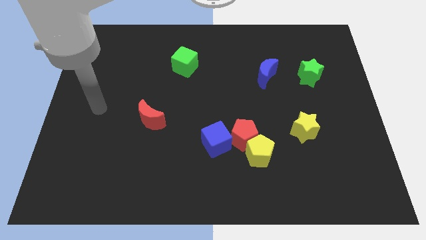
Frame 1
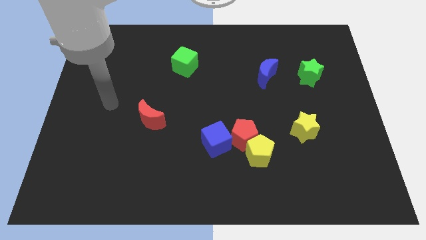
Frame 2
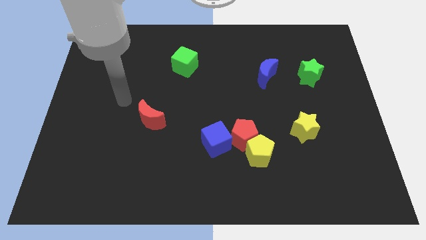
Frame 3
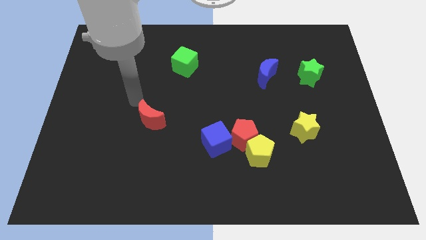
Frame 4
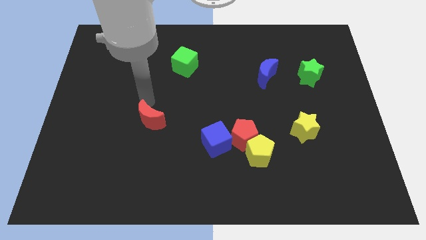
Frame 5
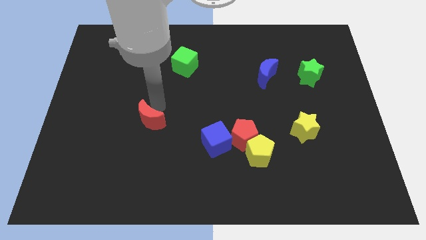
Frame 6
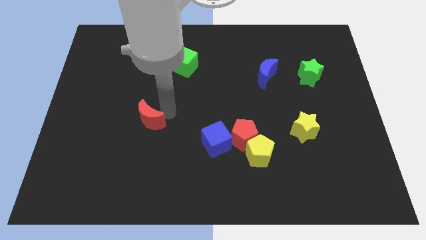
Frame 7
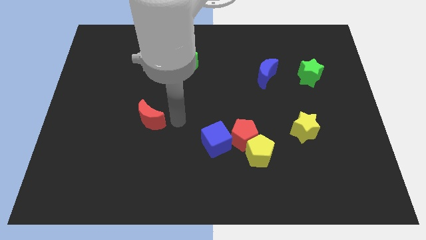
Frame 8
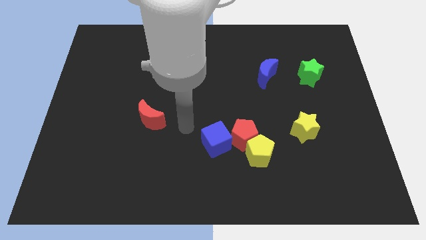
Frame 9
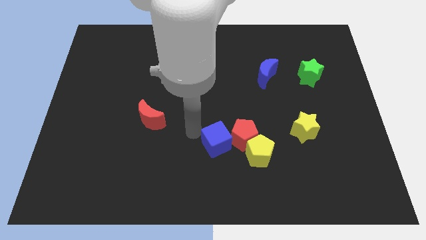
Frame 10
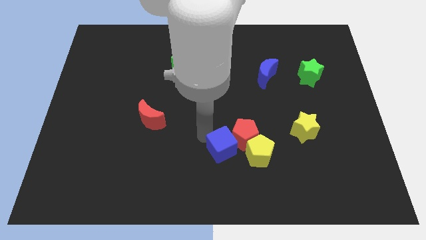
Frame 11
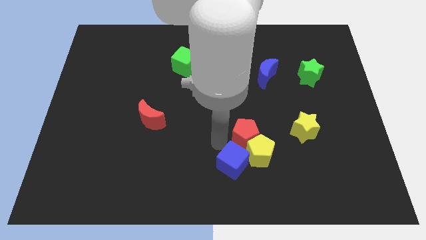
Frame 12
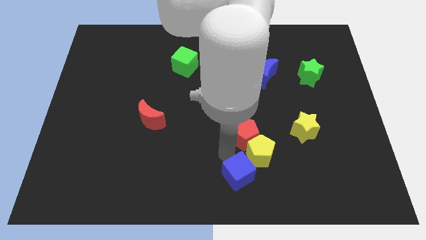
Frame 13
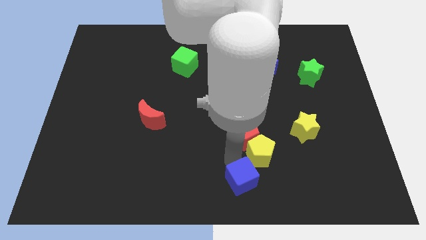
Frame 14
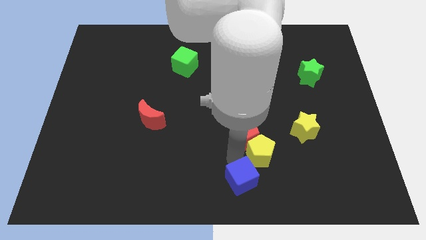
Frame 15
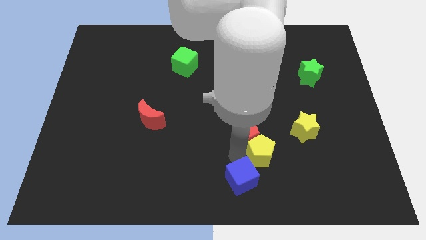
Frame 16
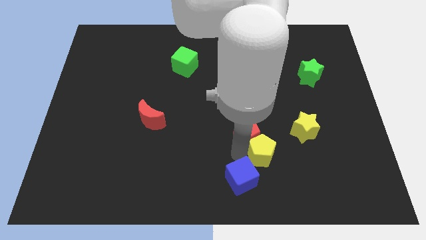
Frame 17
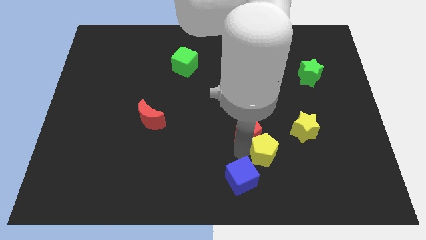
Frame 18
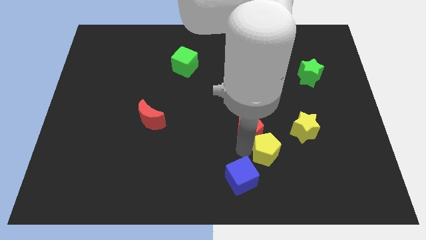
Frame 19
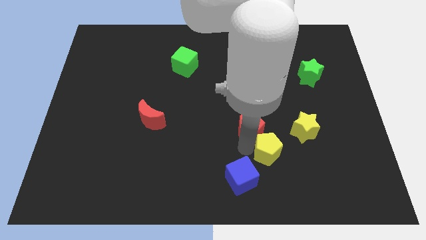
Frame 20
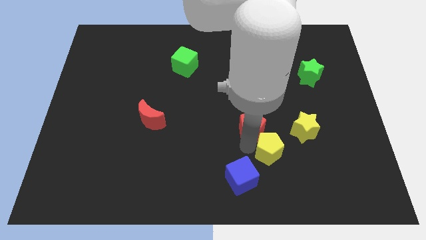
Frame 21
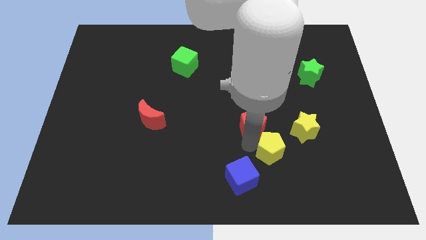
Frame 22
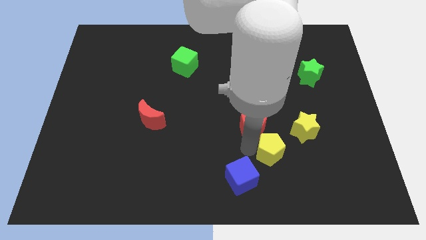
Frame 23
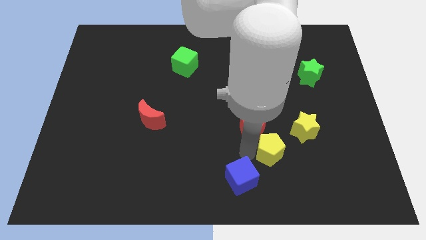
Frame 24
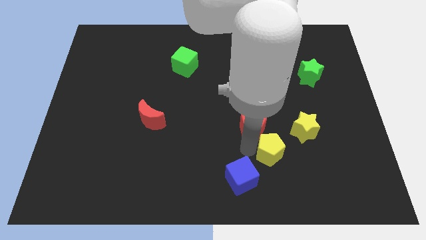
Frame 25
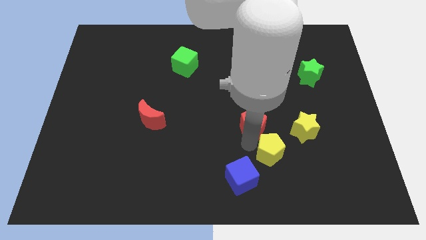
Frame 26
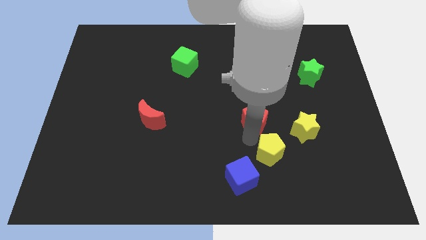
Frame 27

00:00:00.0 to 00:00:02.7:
pull the red pentagon apart from the yellow pentagon and blue cube

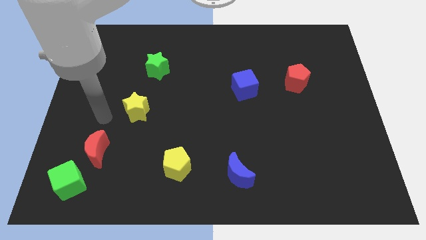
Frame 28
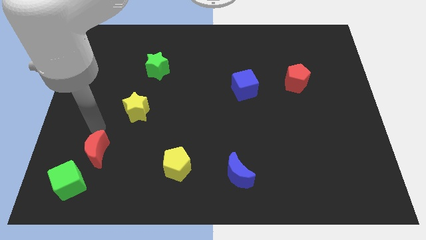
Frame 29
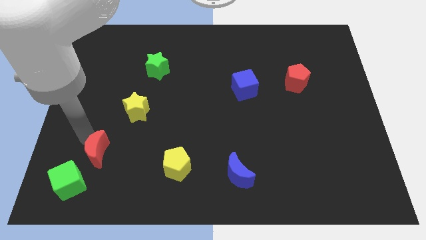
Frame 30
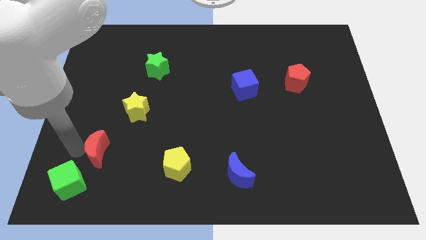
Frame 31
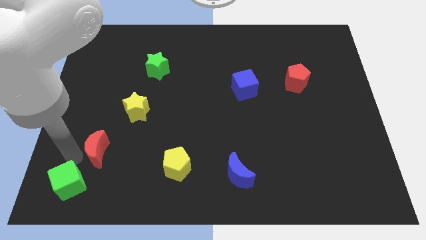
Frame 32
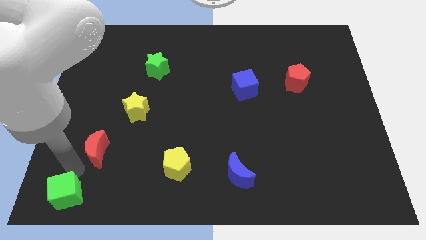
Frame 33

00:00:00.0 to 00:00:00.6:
pull the red moon apart from the green cube

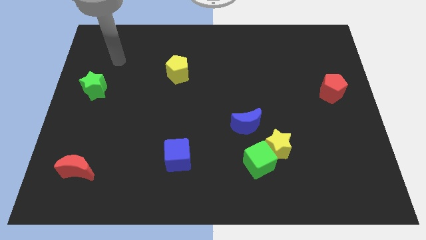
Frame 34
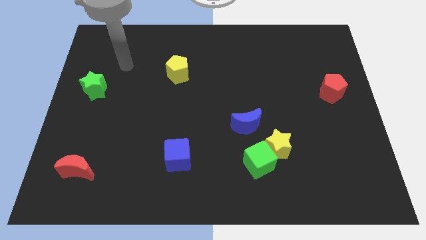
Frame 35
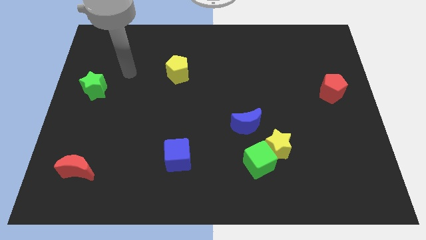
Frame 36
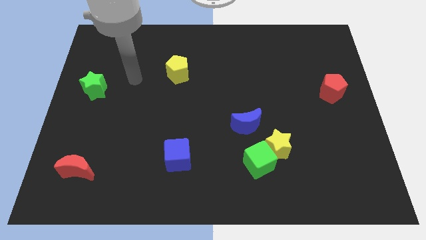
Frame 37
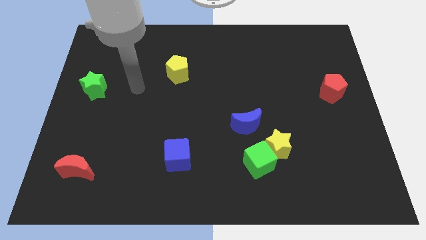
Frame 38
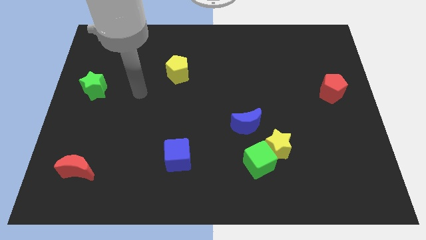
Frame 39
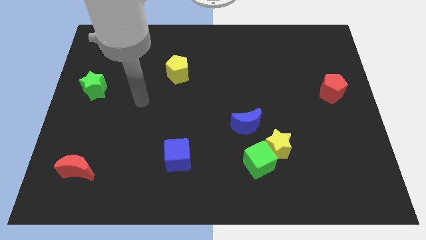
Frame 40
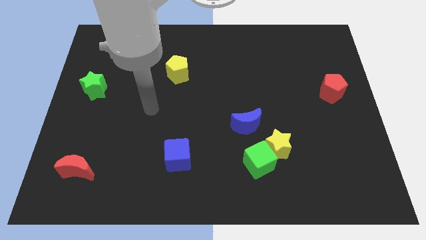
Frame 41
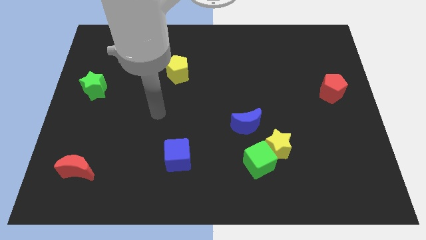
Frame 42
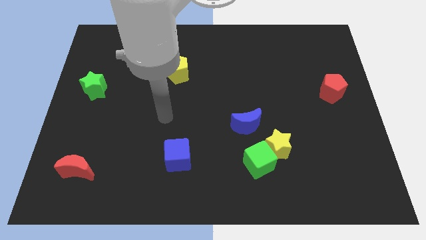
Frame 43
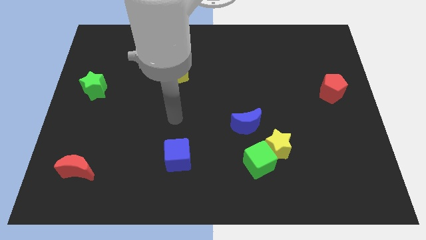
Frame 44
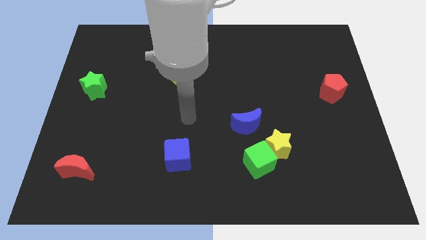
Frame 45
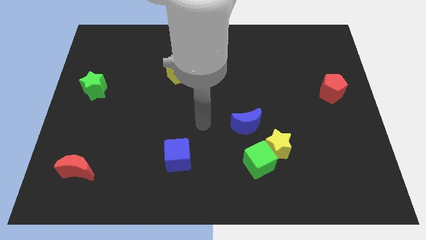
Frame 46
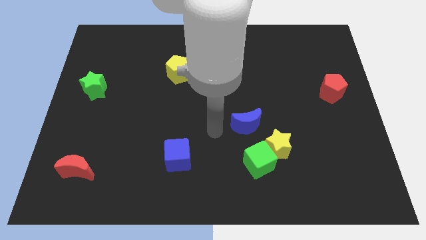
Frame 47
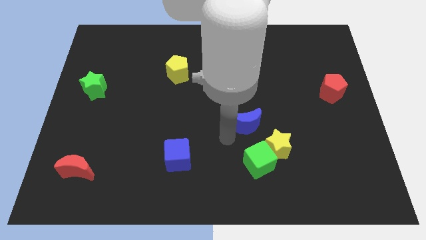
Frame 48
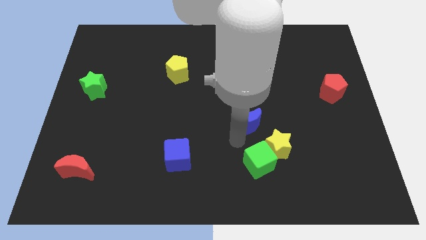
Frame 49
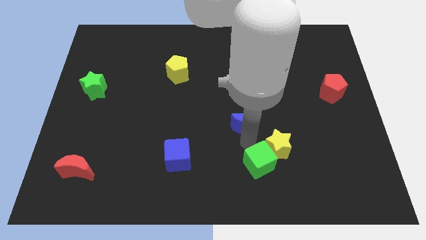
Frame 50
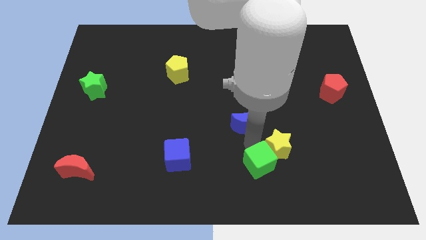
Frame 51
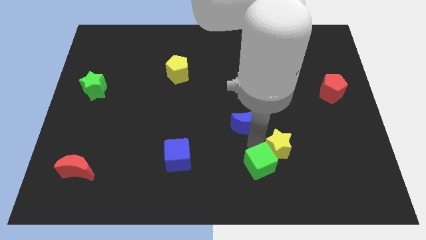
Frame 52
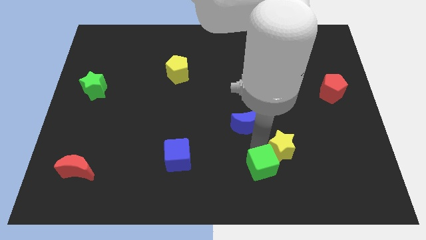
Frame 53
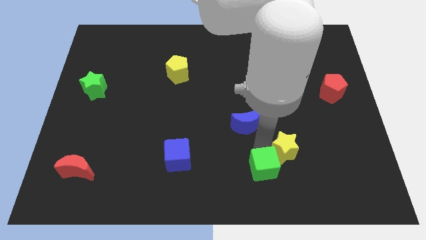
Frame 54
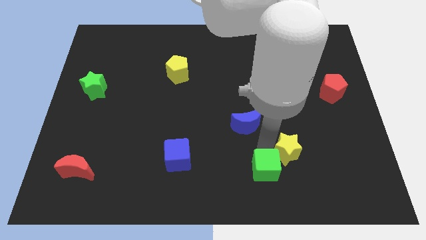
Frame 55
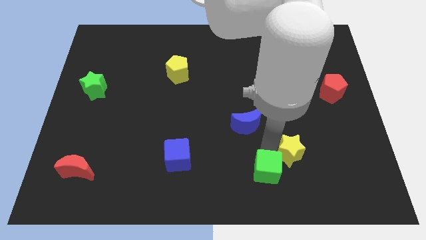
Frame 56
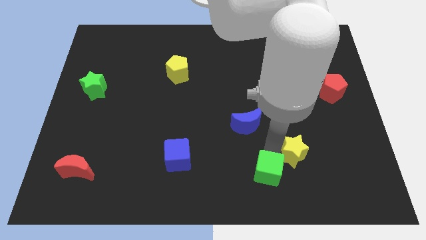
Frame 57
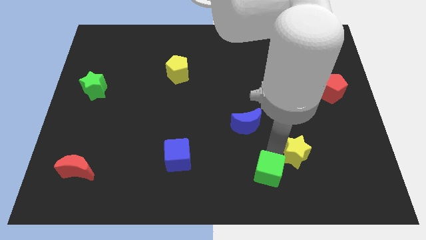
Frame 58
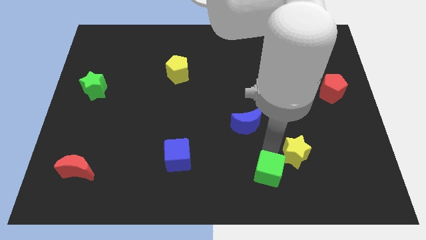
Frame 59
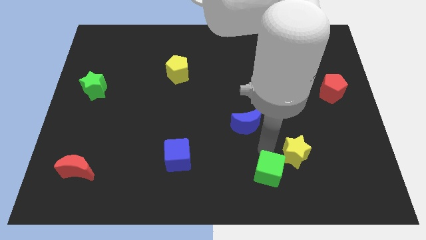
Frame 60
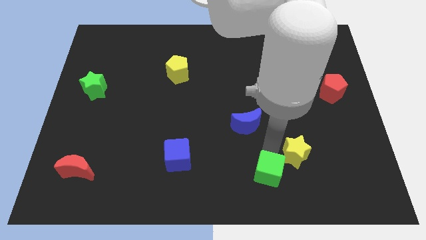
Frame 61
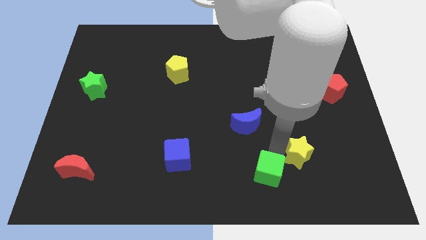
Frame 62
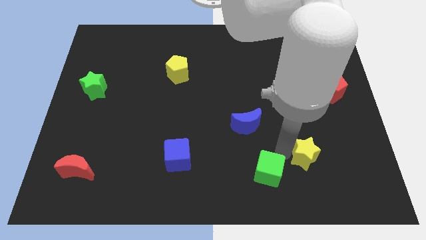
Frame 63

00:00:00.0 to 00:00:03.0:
separate the yellow star from the green cube and blue moon

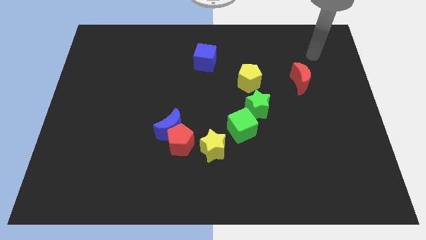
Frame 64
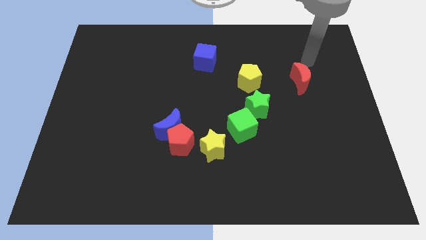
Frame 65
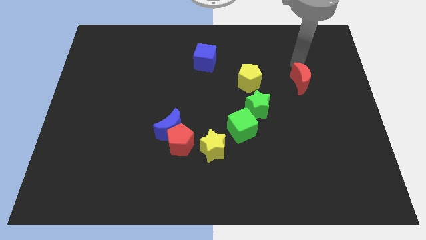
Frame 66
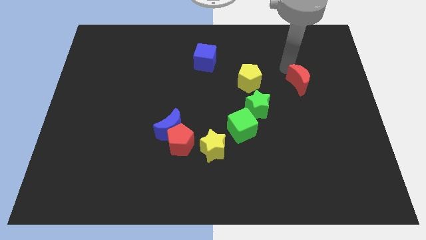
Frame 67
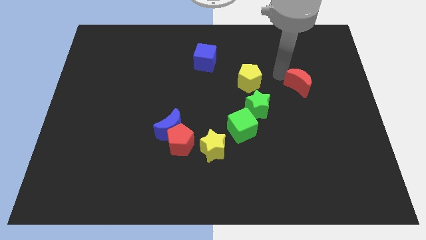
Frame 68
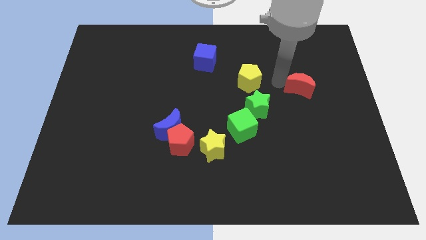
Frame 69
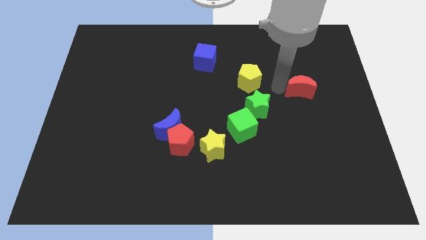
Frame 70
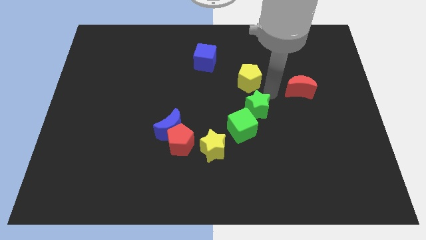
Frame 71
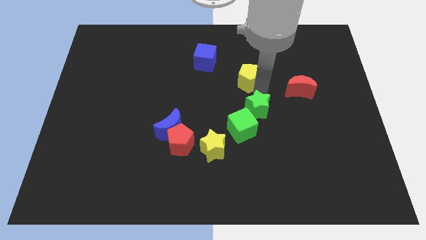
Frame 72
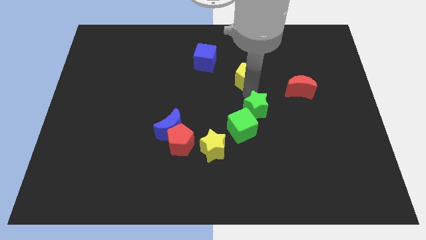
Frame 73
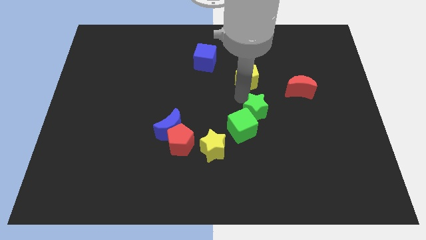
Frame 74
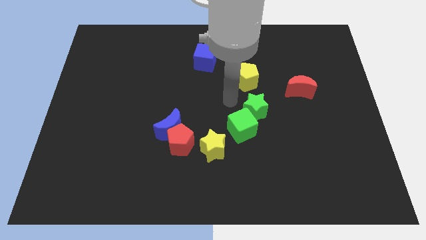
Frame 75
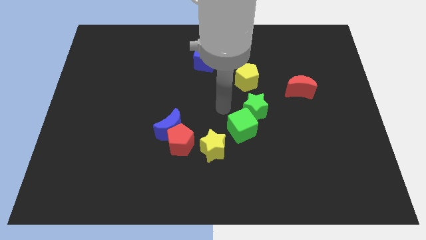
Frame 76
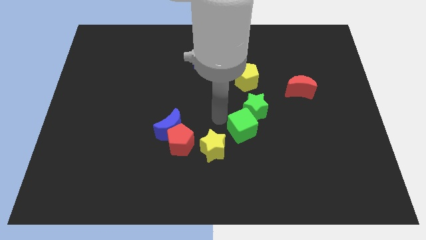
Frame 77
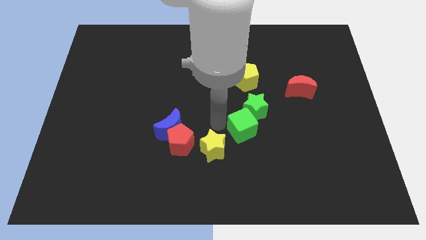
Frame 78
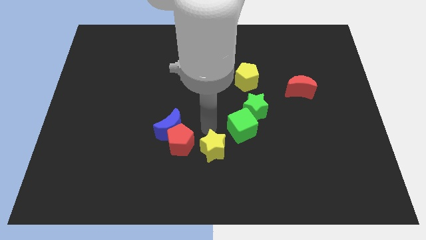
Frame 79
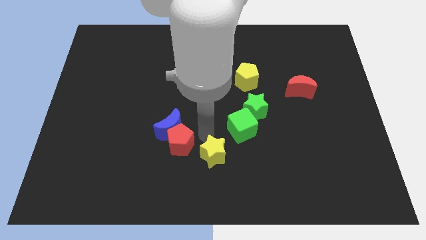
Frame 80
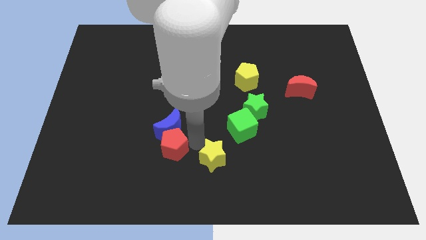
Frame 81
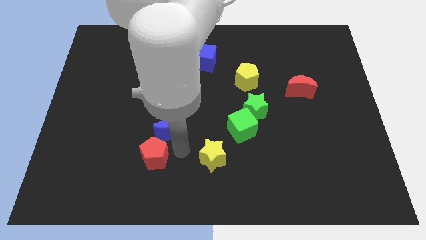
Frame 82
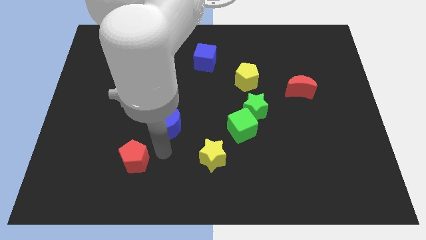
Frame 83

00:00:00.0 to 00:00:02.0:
move the blue moon away from the red pentagon

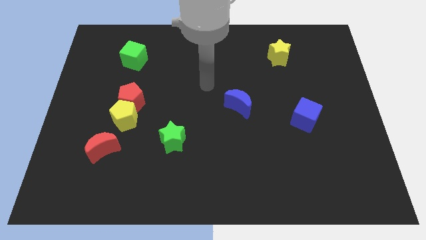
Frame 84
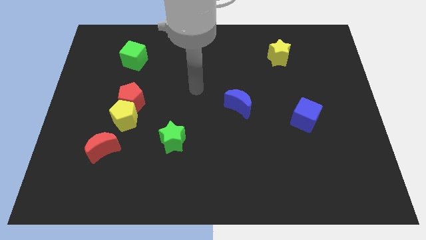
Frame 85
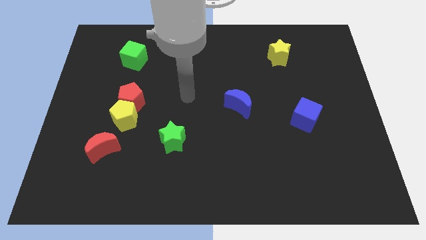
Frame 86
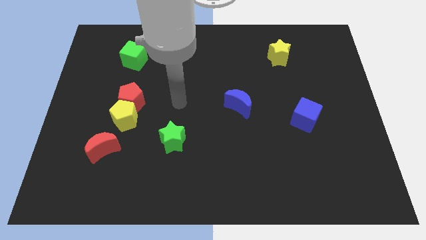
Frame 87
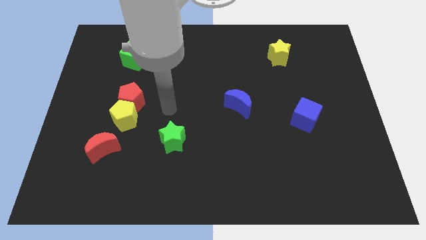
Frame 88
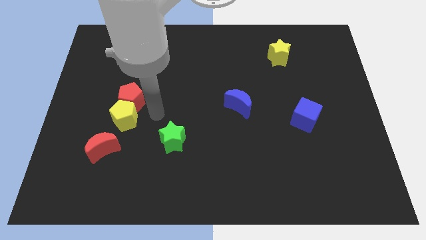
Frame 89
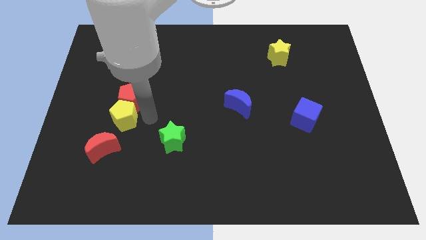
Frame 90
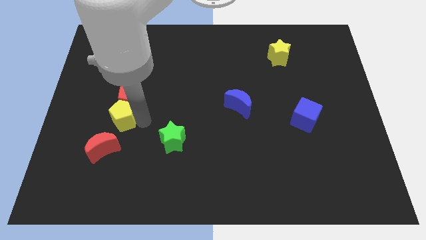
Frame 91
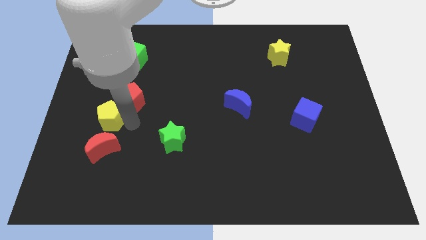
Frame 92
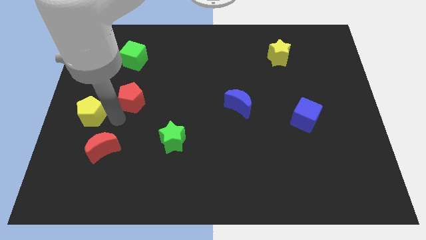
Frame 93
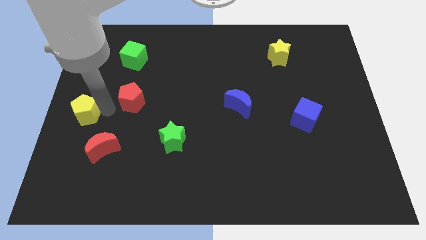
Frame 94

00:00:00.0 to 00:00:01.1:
separate the red pentagon from the yellow pentagon

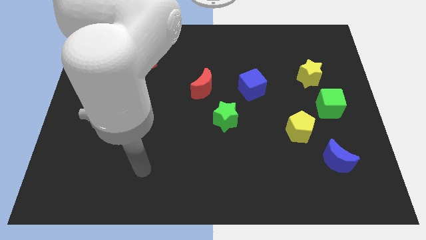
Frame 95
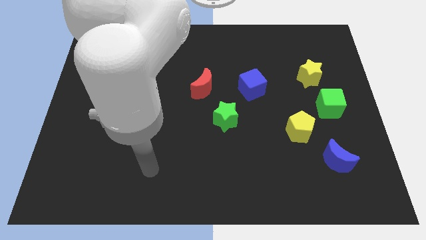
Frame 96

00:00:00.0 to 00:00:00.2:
move the yellow star away from the green cube
